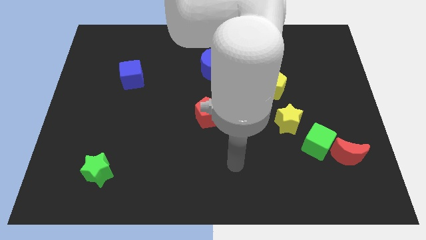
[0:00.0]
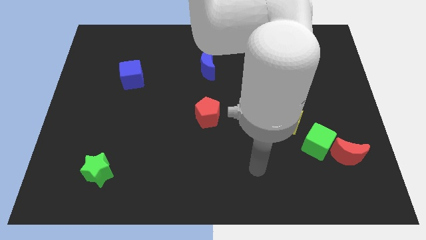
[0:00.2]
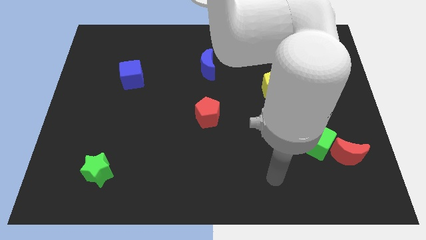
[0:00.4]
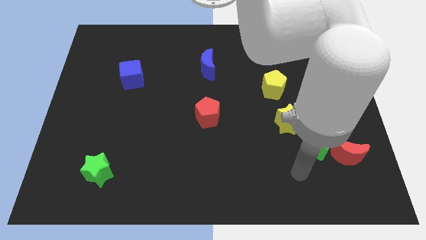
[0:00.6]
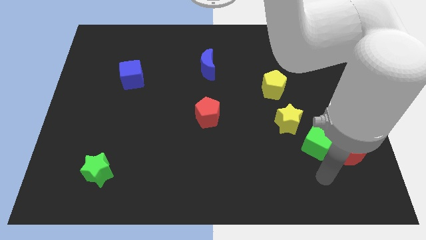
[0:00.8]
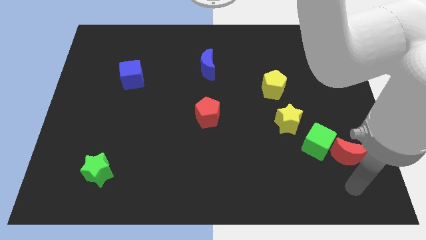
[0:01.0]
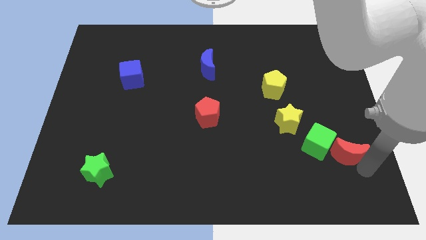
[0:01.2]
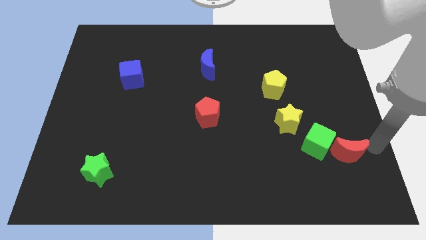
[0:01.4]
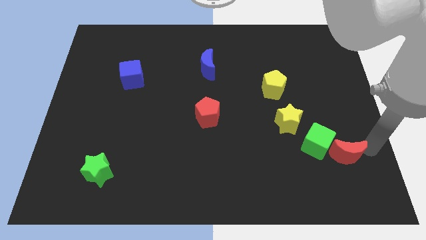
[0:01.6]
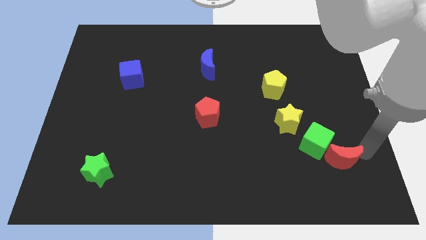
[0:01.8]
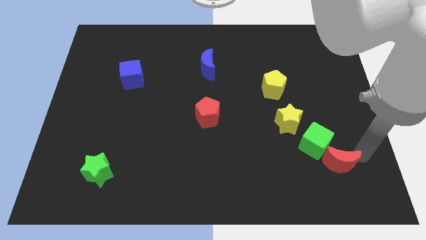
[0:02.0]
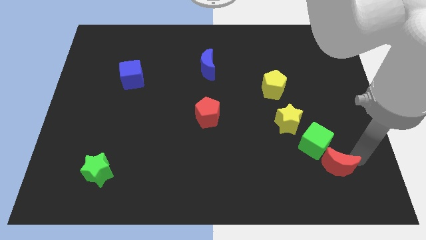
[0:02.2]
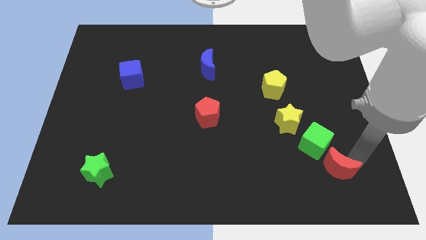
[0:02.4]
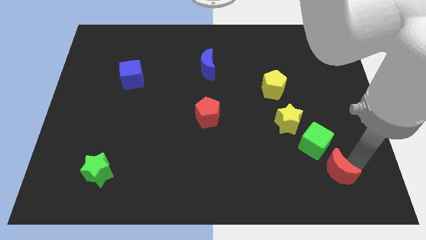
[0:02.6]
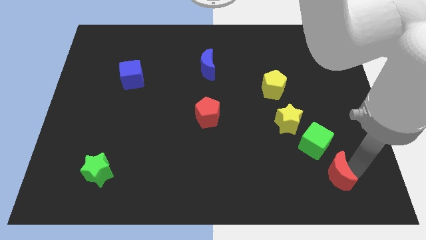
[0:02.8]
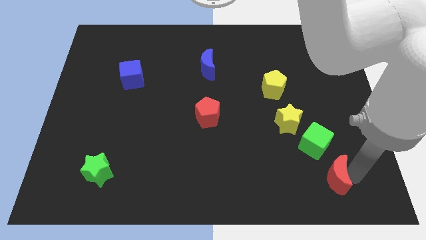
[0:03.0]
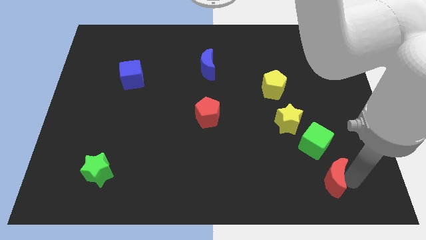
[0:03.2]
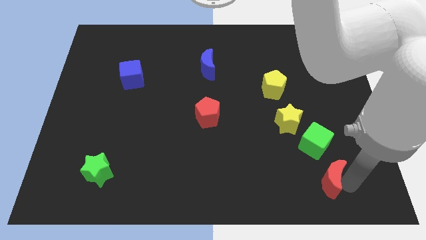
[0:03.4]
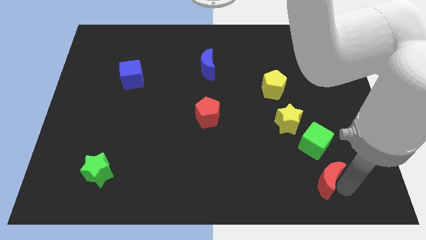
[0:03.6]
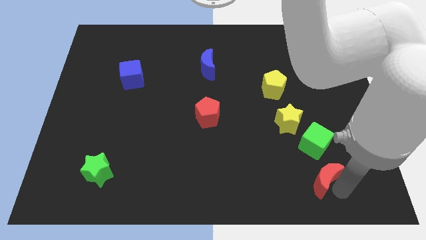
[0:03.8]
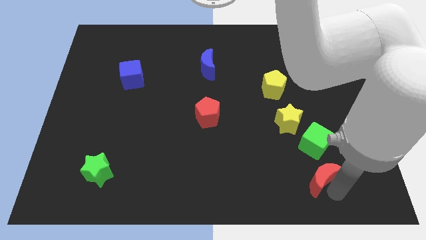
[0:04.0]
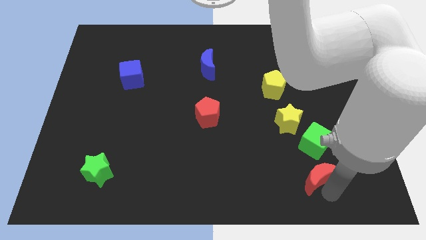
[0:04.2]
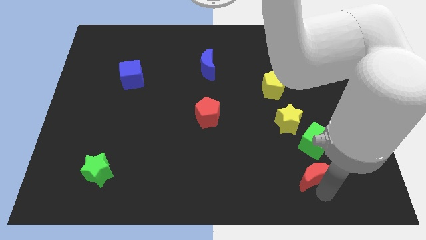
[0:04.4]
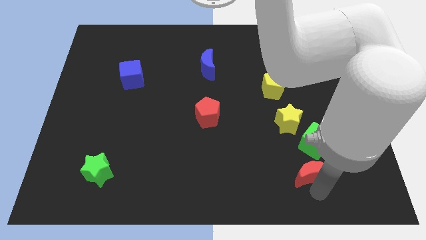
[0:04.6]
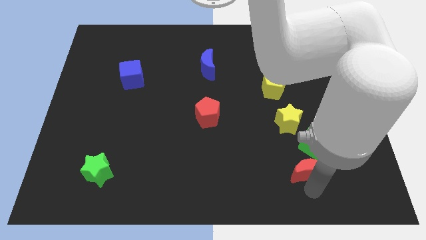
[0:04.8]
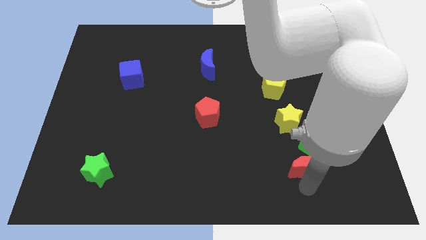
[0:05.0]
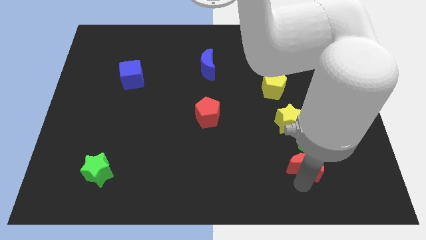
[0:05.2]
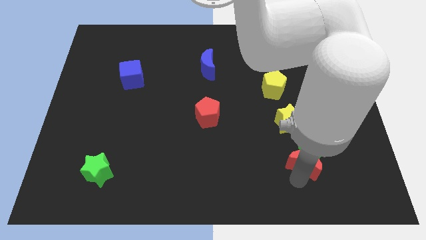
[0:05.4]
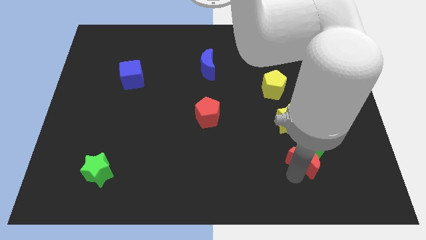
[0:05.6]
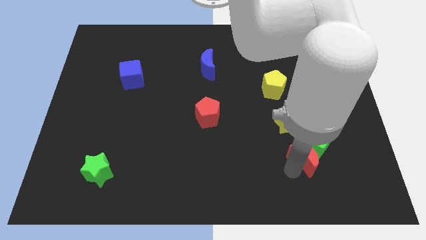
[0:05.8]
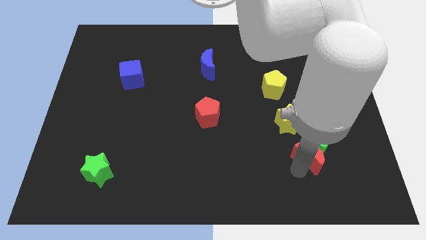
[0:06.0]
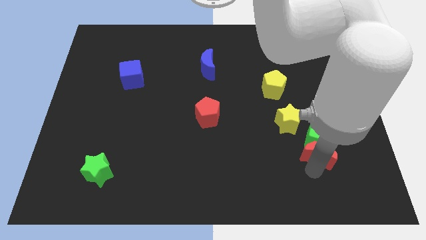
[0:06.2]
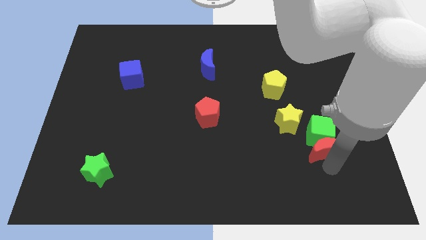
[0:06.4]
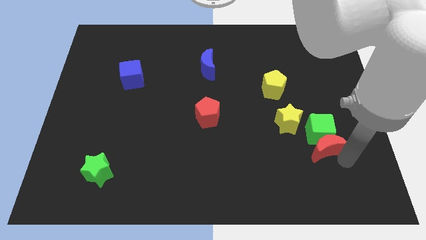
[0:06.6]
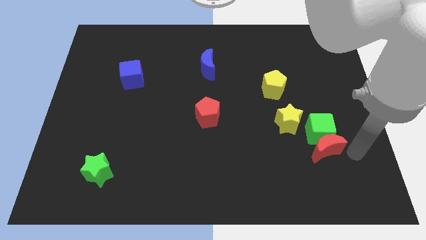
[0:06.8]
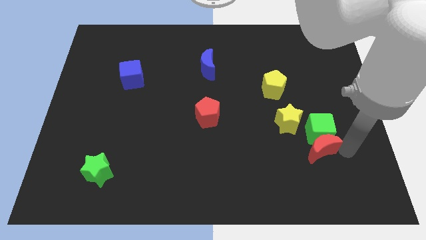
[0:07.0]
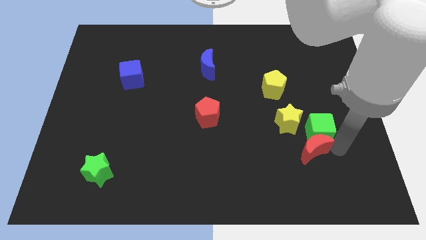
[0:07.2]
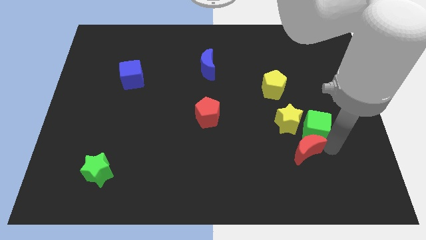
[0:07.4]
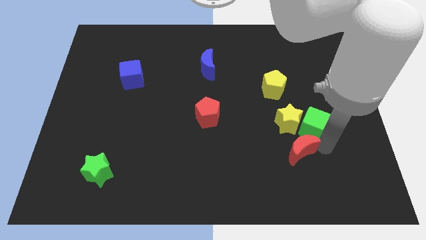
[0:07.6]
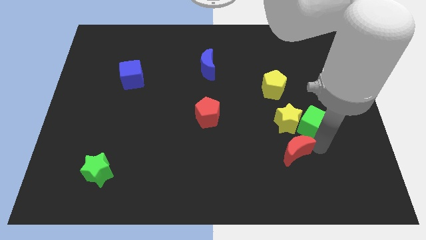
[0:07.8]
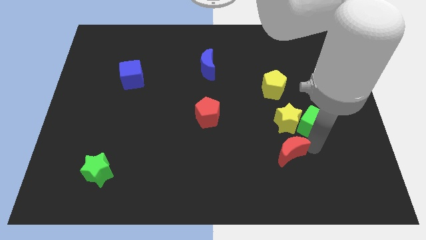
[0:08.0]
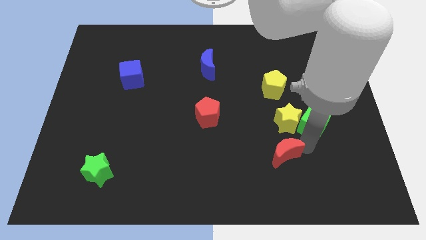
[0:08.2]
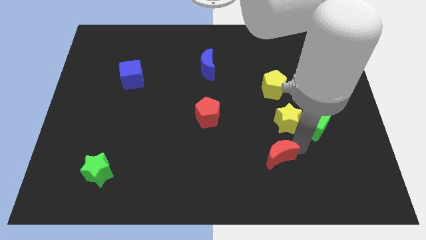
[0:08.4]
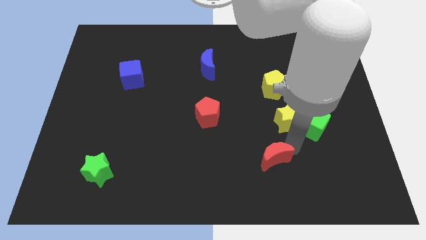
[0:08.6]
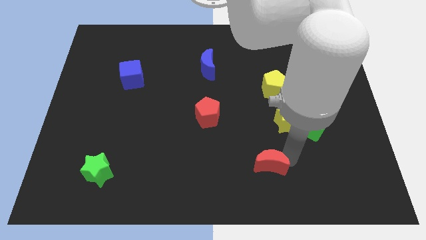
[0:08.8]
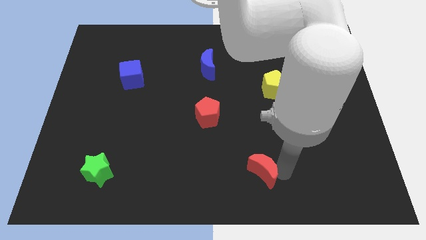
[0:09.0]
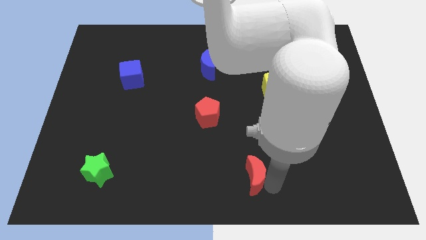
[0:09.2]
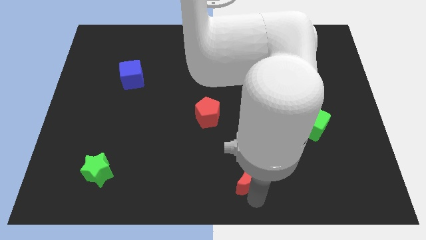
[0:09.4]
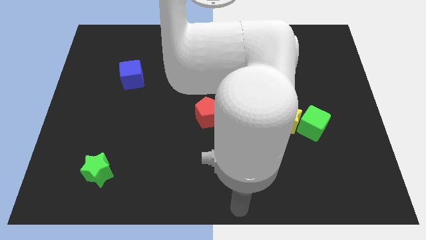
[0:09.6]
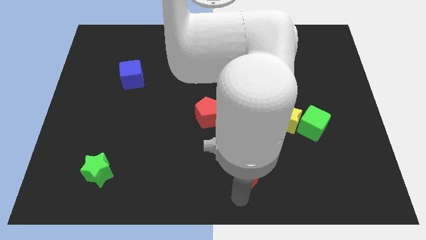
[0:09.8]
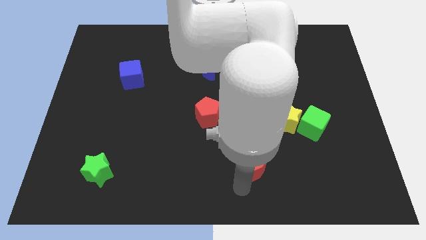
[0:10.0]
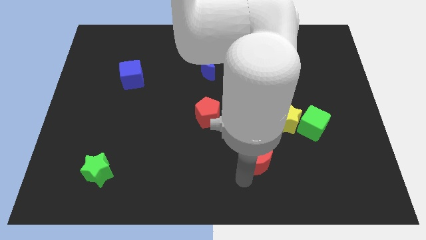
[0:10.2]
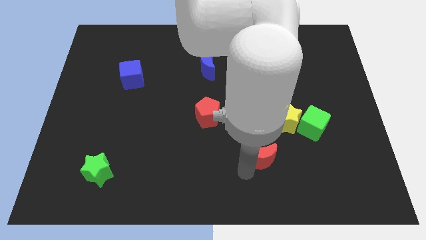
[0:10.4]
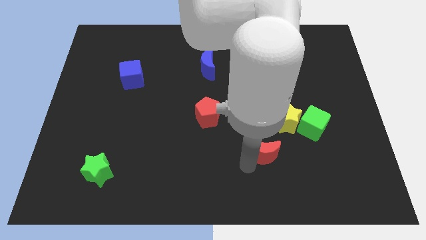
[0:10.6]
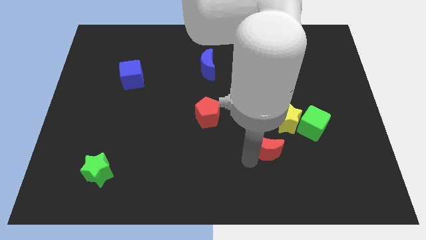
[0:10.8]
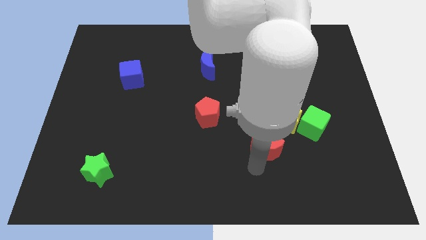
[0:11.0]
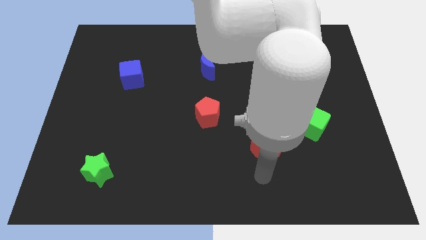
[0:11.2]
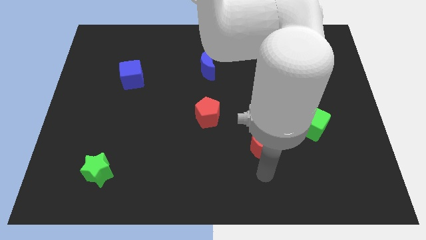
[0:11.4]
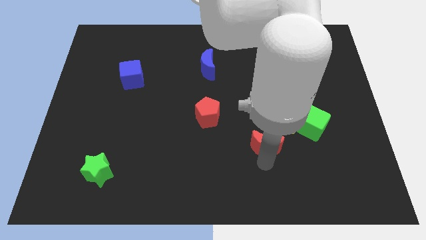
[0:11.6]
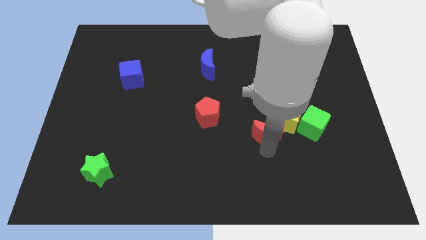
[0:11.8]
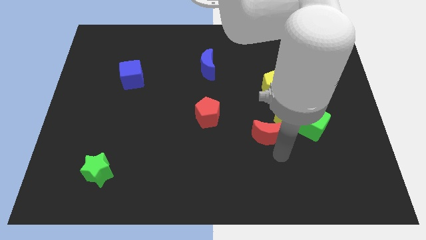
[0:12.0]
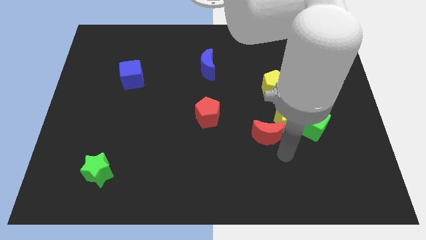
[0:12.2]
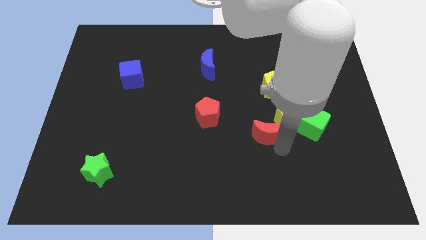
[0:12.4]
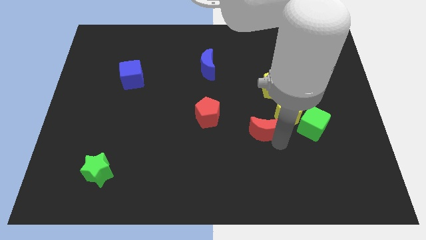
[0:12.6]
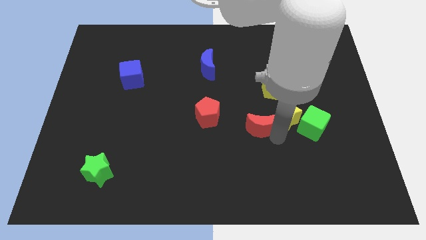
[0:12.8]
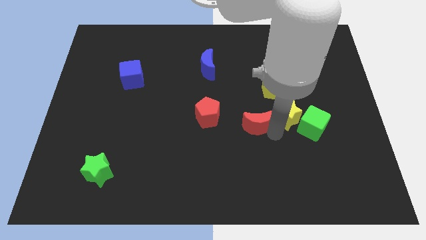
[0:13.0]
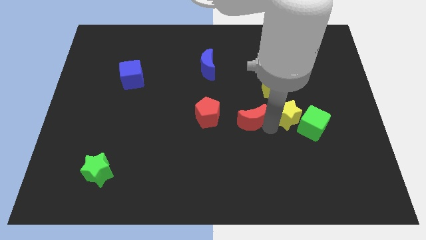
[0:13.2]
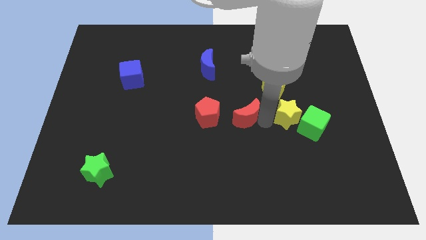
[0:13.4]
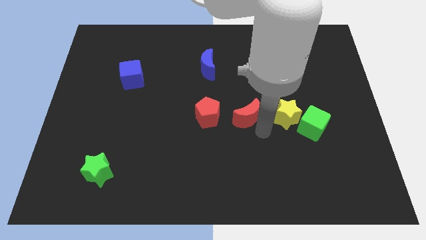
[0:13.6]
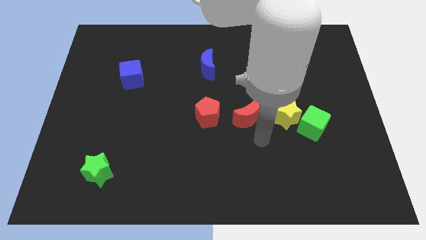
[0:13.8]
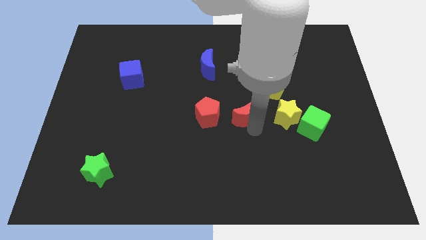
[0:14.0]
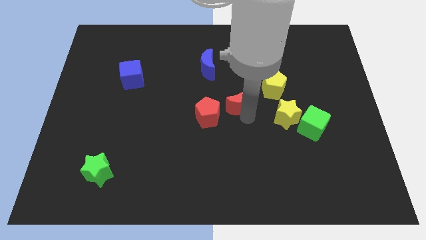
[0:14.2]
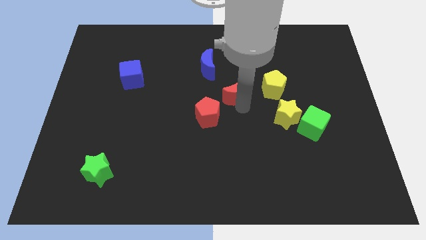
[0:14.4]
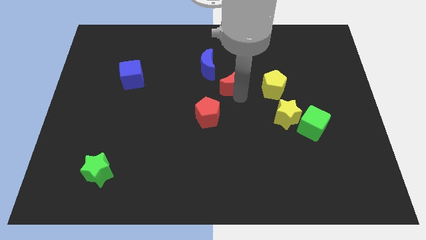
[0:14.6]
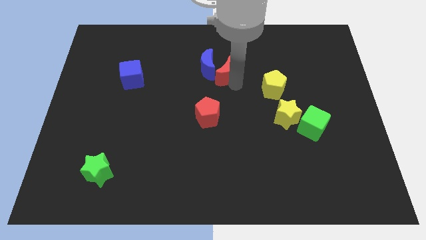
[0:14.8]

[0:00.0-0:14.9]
move the red moon towards the blue moon
